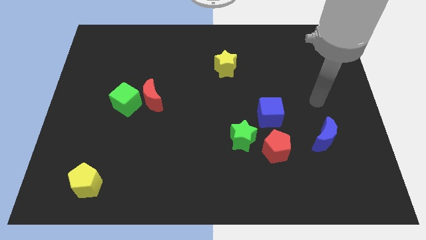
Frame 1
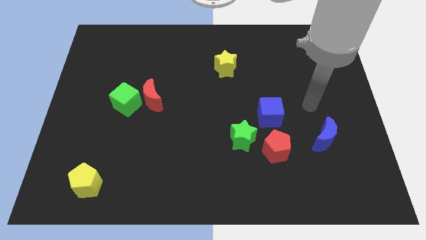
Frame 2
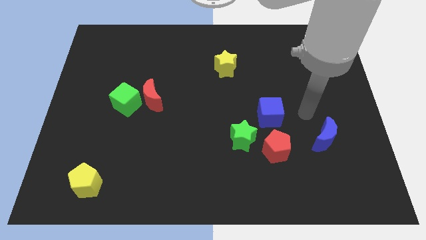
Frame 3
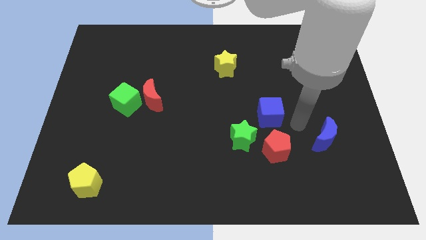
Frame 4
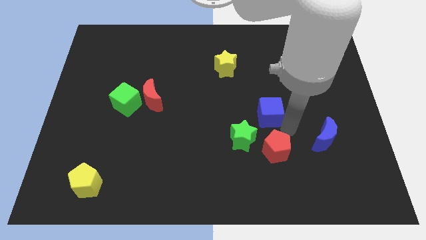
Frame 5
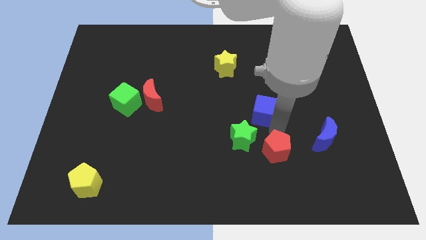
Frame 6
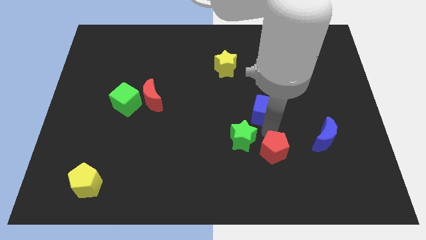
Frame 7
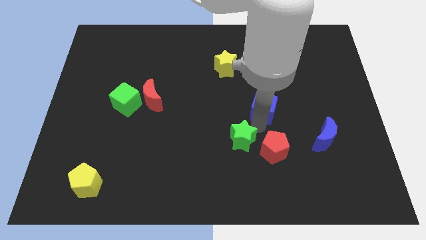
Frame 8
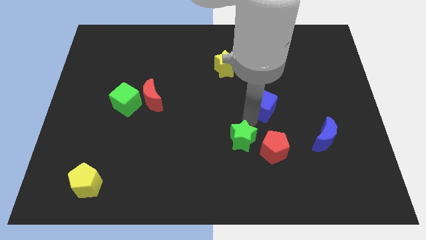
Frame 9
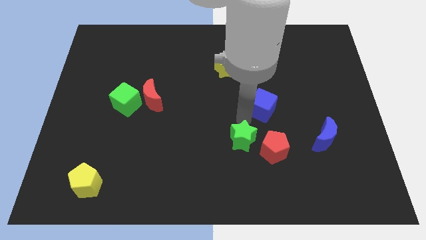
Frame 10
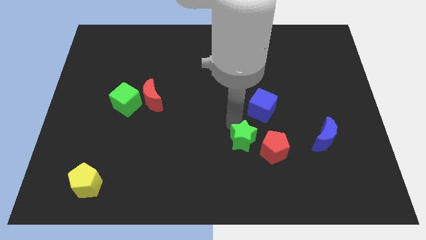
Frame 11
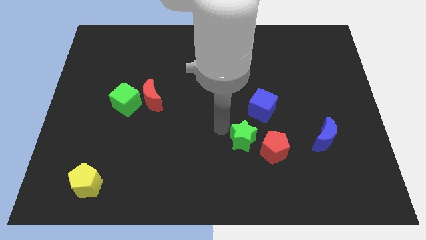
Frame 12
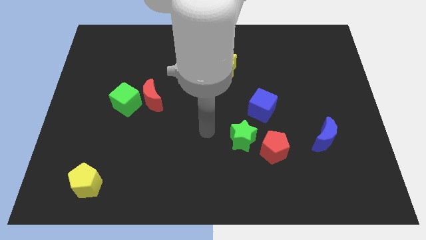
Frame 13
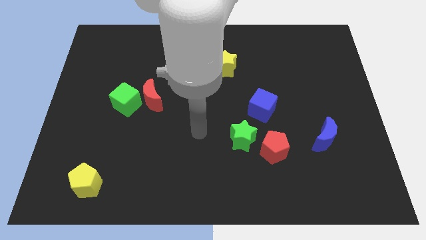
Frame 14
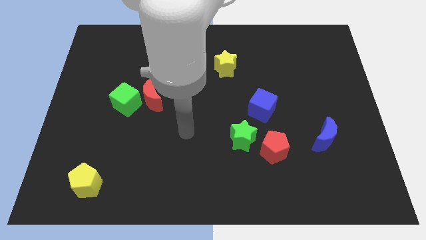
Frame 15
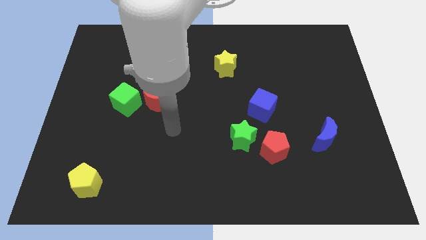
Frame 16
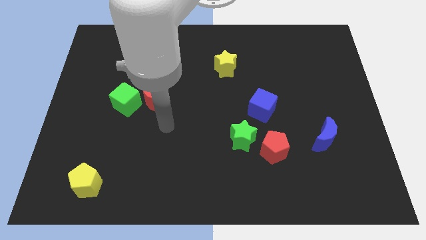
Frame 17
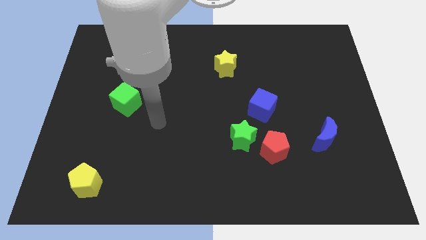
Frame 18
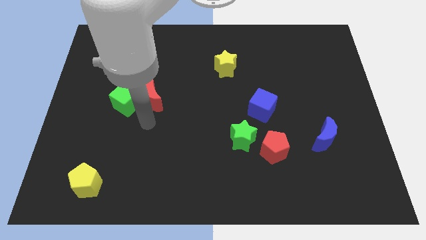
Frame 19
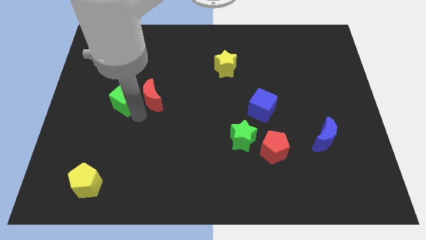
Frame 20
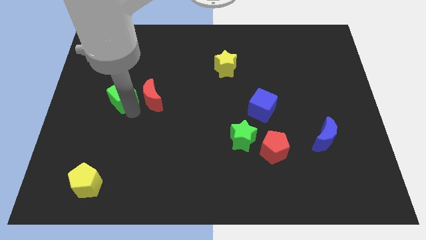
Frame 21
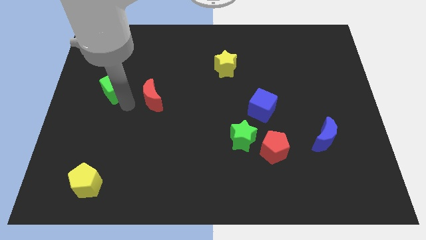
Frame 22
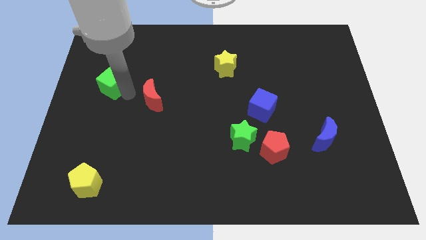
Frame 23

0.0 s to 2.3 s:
move the red moon away from the green cube

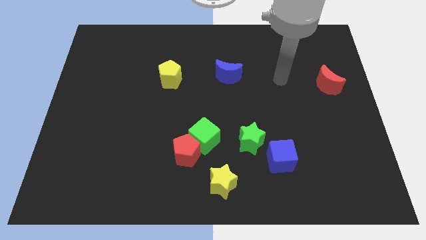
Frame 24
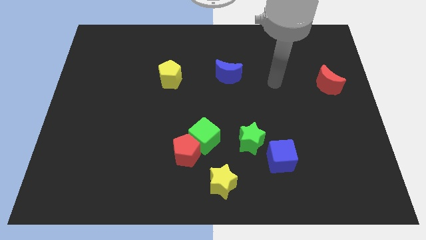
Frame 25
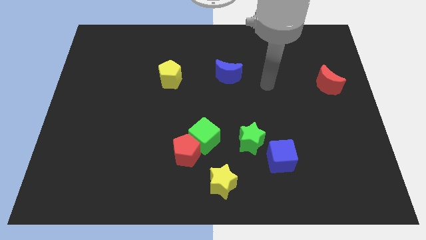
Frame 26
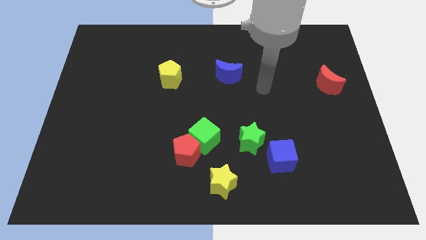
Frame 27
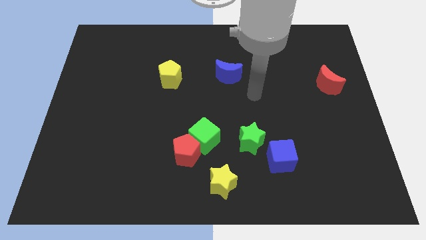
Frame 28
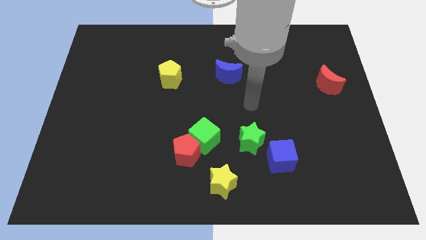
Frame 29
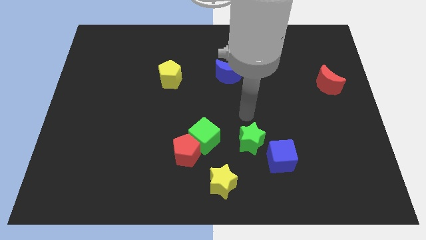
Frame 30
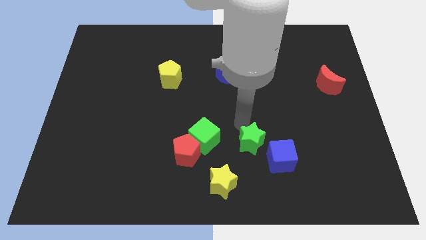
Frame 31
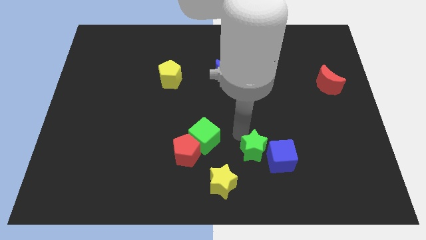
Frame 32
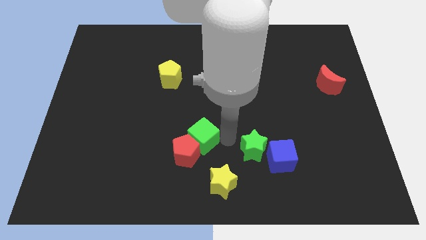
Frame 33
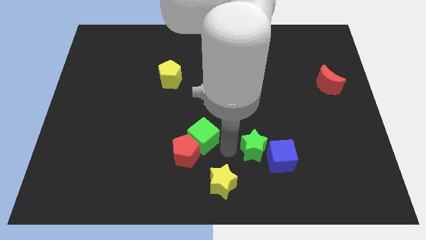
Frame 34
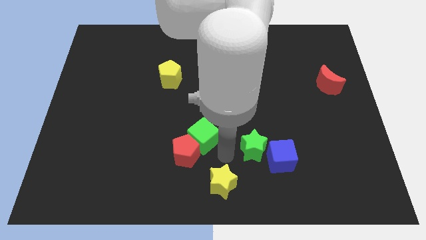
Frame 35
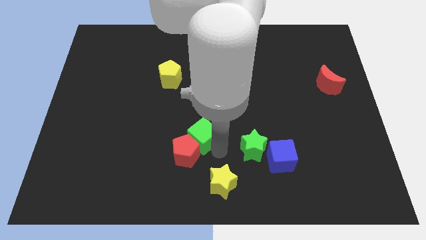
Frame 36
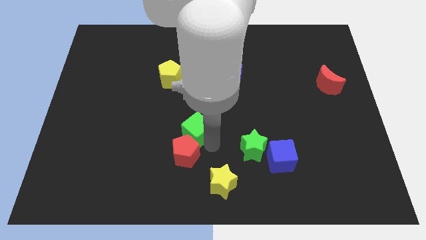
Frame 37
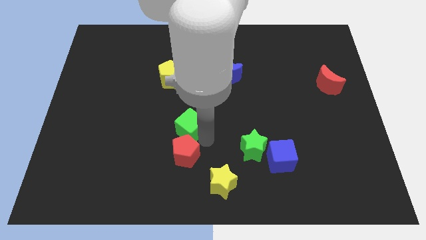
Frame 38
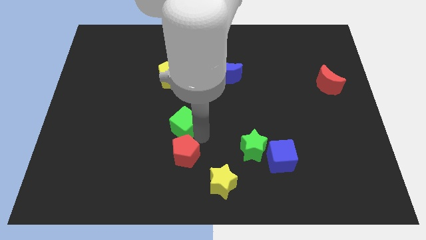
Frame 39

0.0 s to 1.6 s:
move the green cube away from the red pentagon and green star

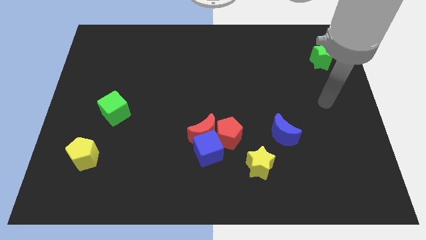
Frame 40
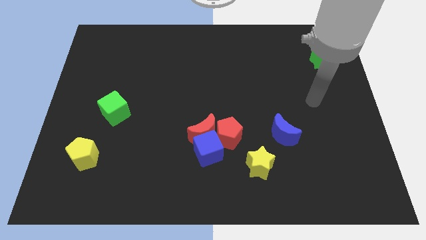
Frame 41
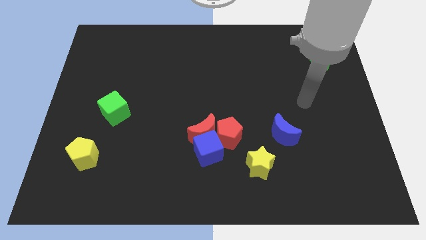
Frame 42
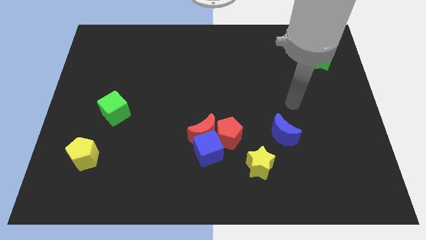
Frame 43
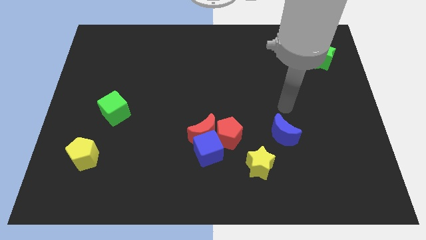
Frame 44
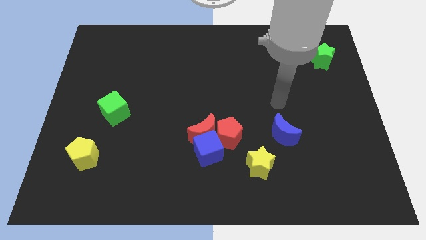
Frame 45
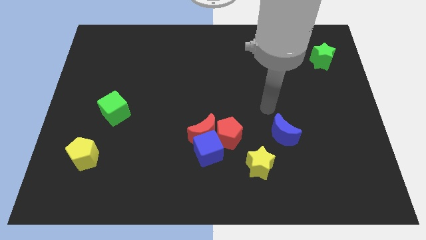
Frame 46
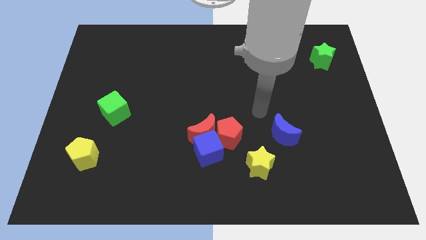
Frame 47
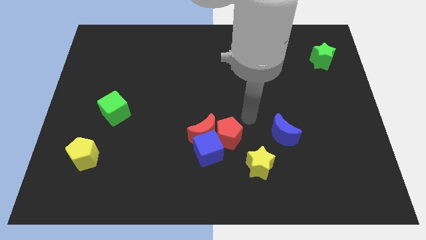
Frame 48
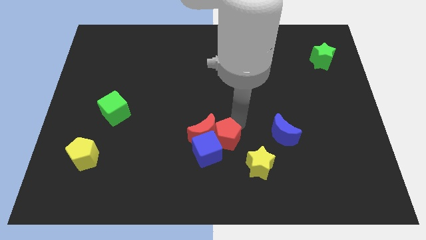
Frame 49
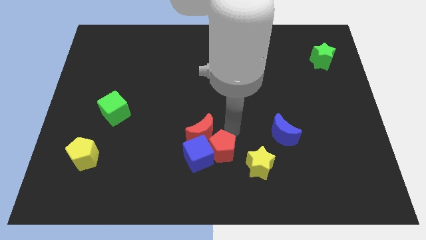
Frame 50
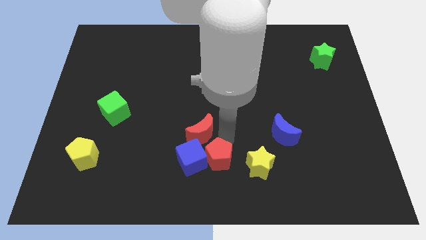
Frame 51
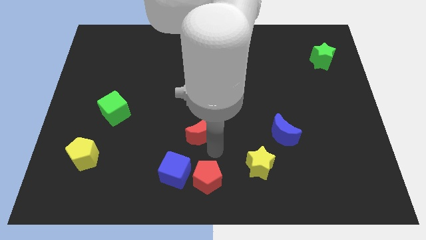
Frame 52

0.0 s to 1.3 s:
separate the red moon from the blue cube and red pentagon

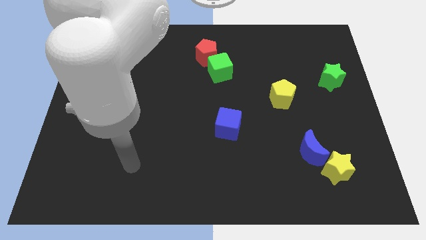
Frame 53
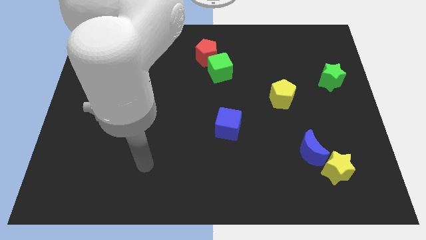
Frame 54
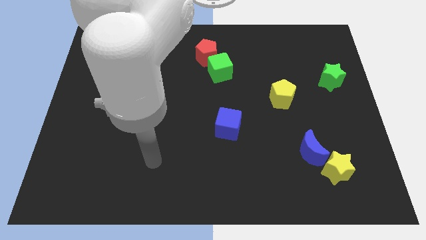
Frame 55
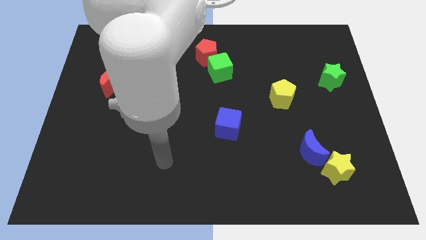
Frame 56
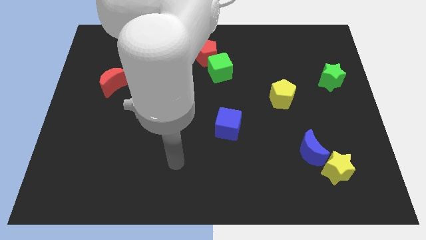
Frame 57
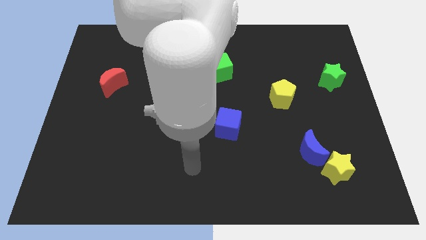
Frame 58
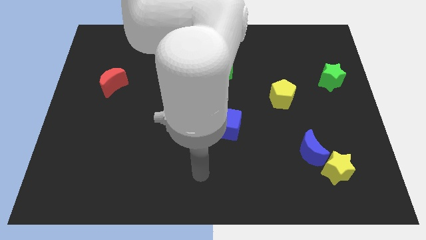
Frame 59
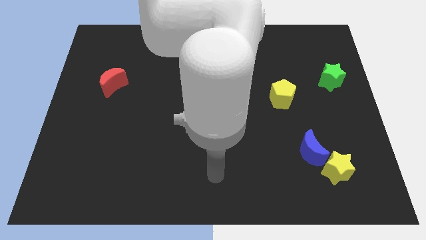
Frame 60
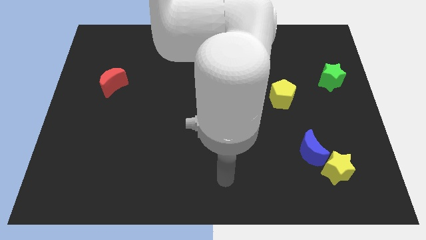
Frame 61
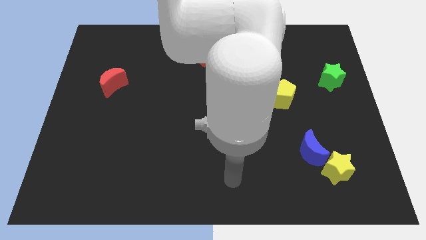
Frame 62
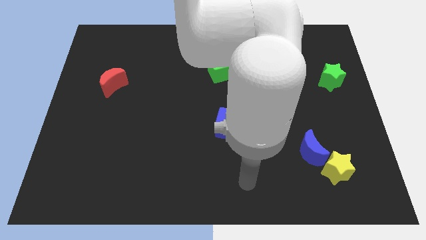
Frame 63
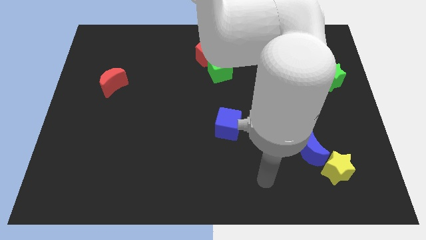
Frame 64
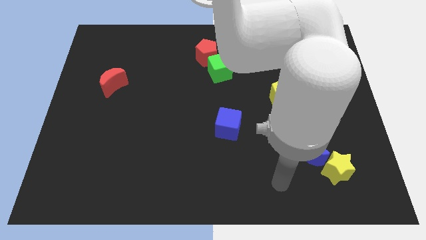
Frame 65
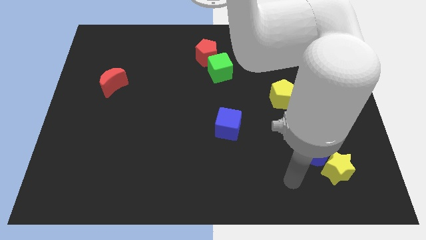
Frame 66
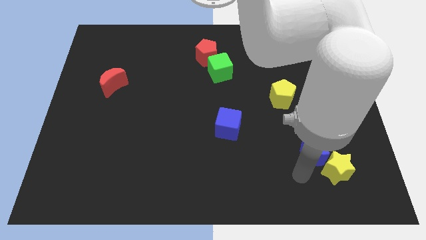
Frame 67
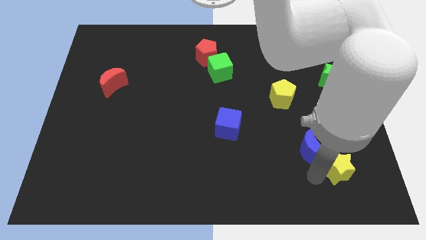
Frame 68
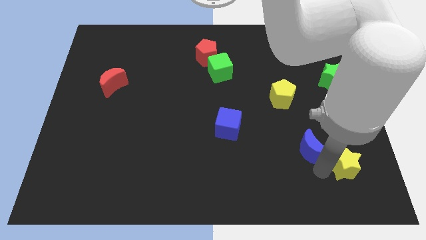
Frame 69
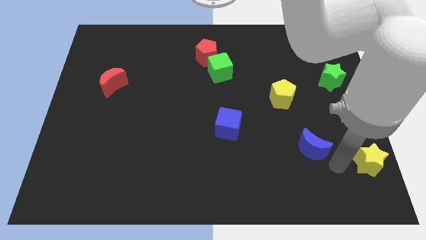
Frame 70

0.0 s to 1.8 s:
separate the blue moon from the yellow star

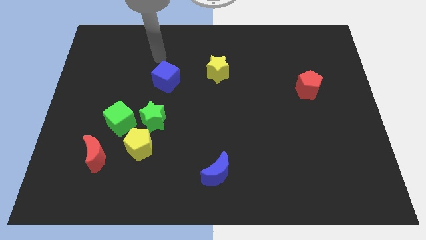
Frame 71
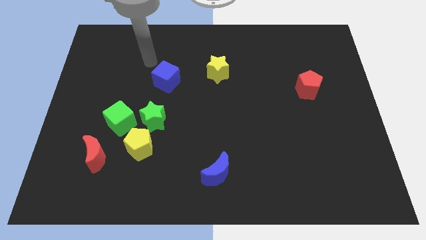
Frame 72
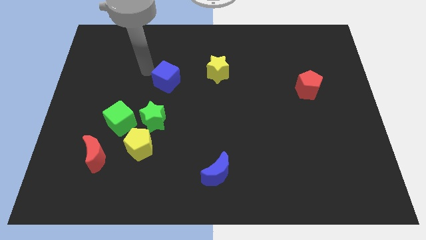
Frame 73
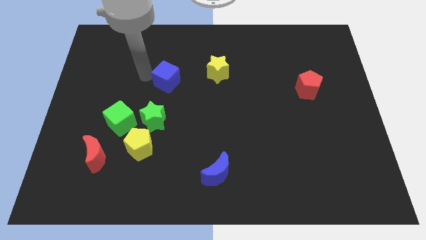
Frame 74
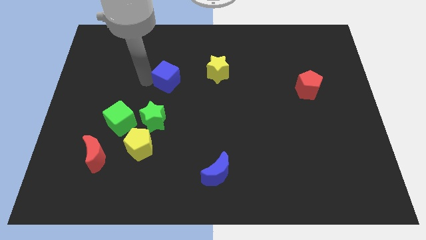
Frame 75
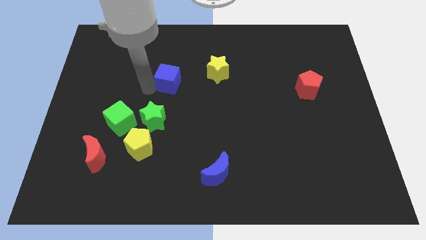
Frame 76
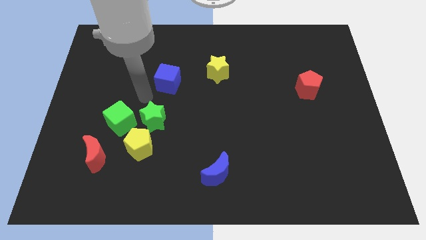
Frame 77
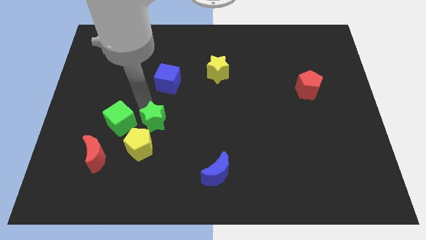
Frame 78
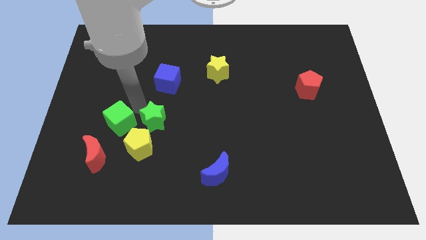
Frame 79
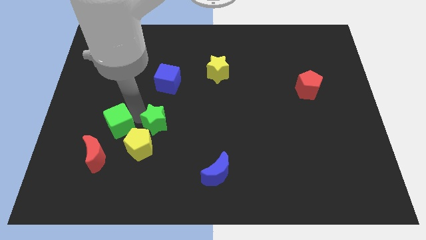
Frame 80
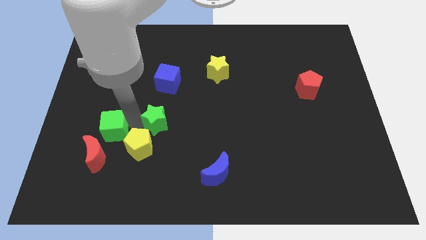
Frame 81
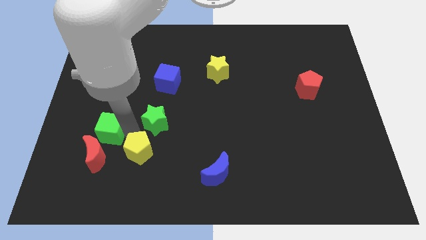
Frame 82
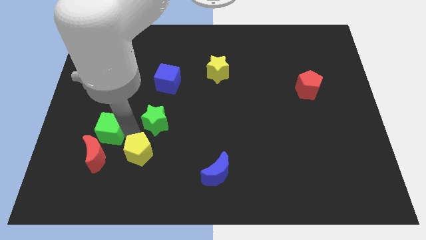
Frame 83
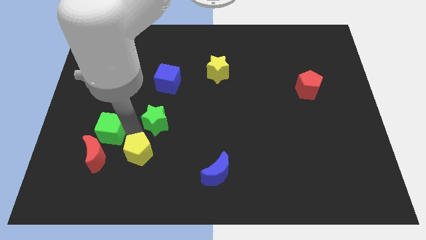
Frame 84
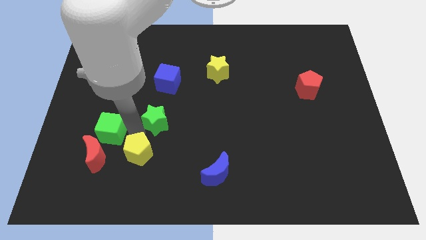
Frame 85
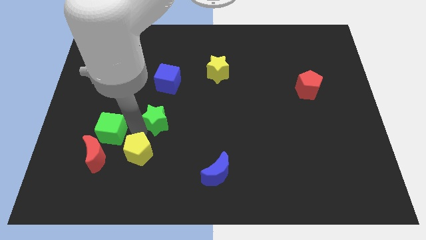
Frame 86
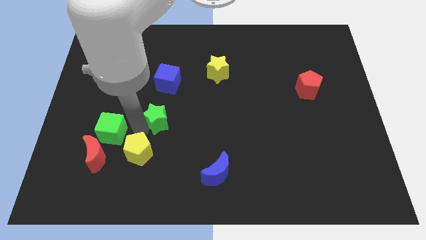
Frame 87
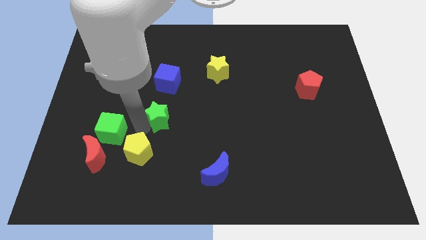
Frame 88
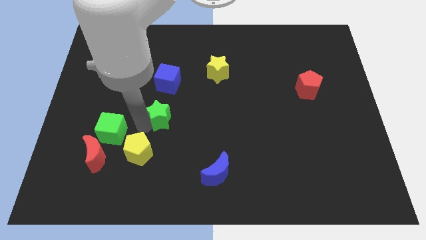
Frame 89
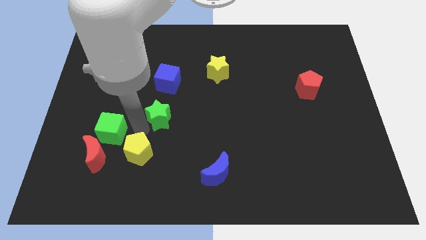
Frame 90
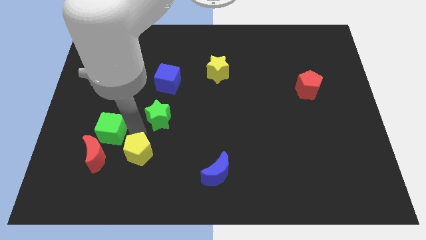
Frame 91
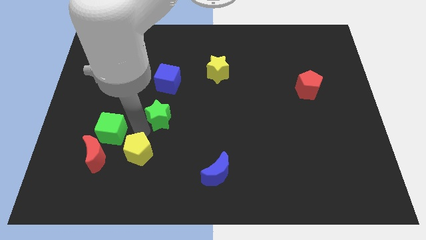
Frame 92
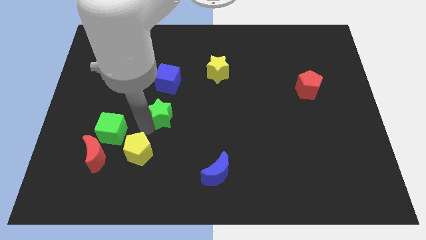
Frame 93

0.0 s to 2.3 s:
move the green star away from the yellow pentagon and green cube
